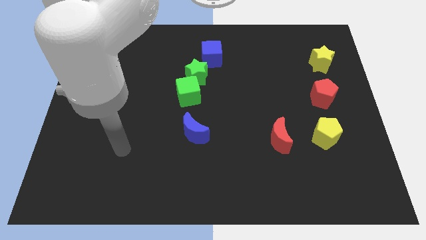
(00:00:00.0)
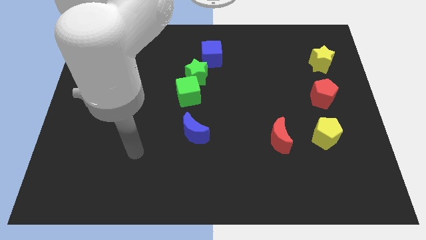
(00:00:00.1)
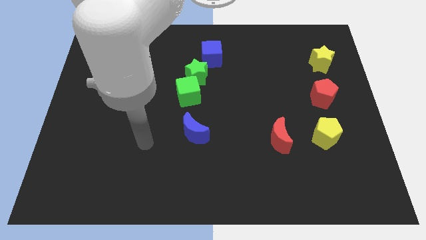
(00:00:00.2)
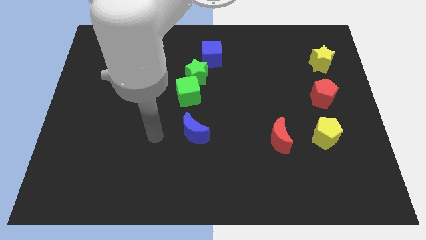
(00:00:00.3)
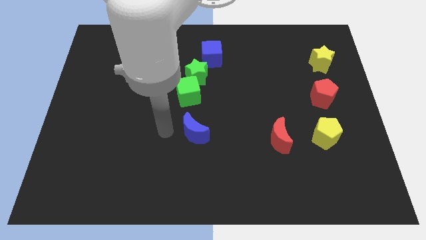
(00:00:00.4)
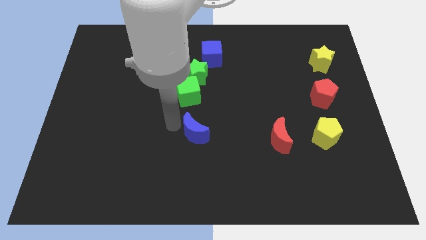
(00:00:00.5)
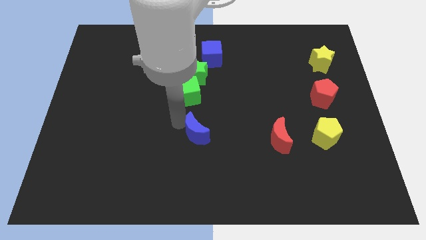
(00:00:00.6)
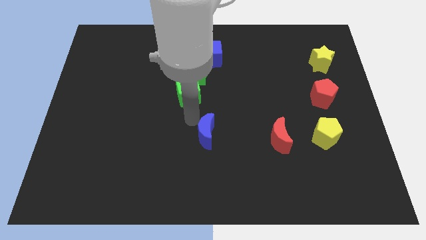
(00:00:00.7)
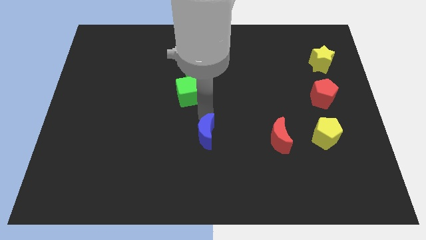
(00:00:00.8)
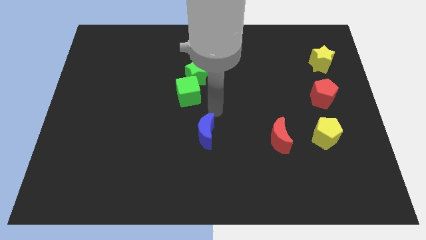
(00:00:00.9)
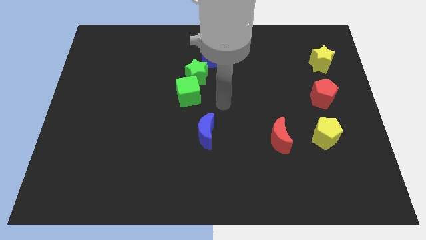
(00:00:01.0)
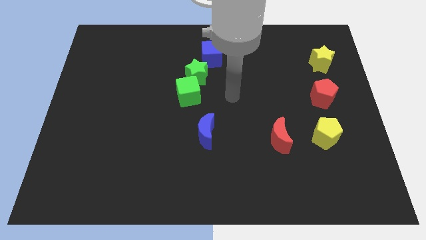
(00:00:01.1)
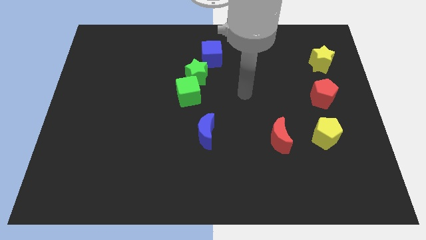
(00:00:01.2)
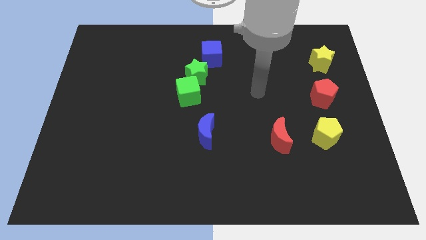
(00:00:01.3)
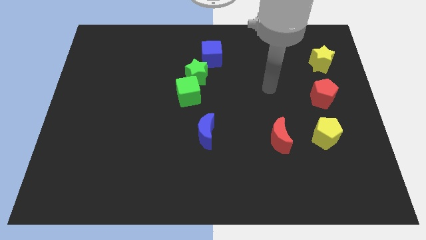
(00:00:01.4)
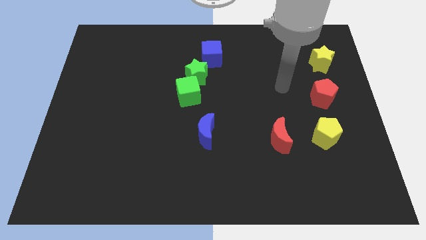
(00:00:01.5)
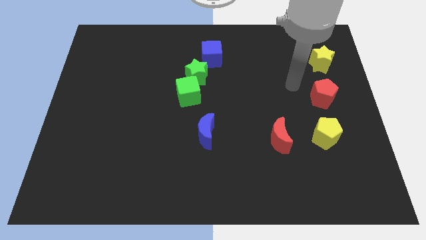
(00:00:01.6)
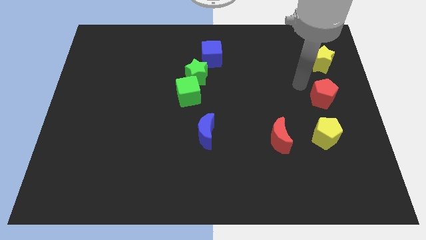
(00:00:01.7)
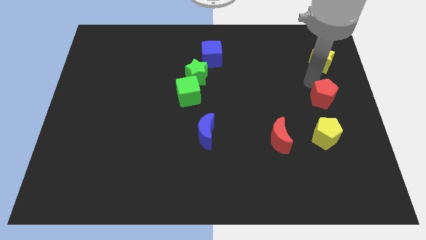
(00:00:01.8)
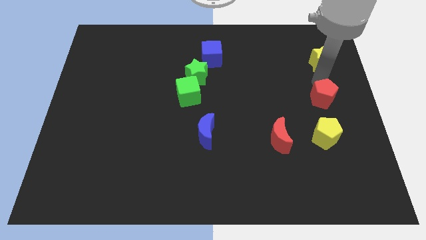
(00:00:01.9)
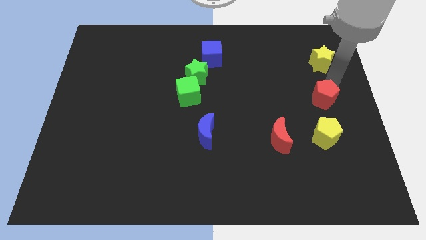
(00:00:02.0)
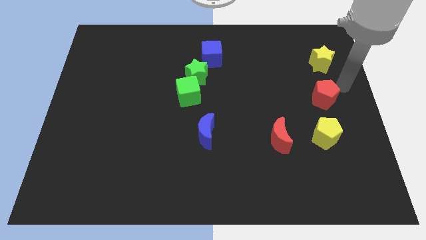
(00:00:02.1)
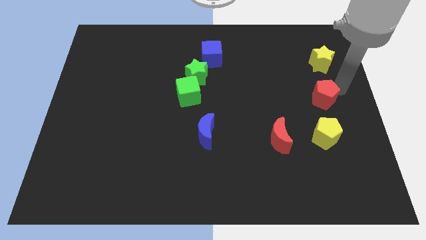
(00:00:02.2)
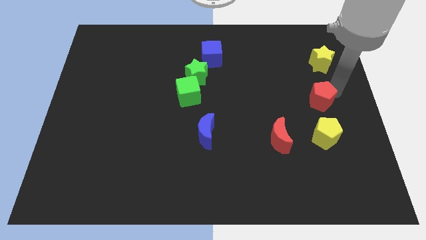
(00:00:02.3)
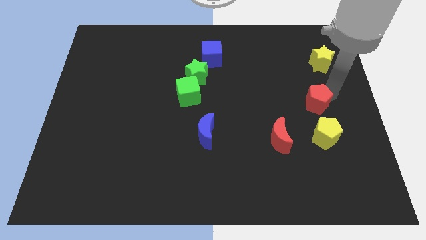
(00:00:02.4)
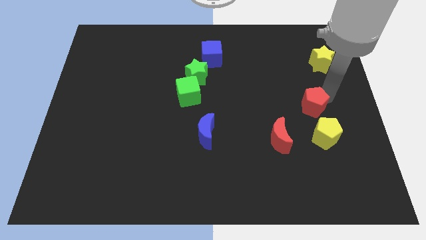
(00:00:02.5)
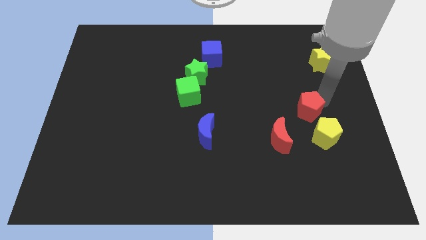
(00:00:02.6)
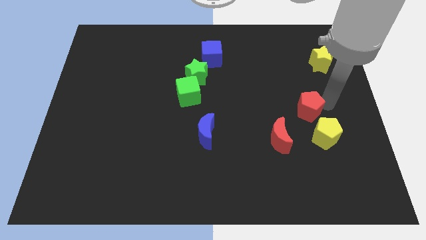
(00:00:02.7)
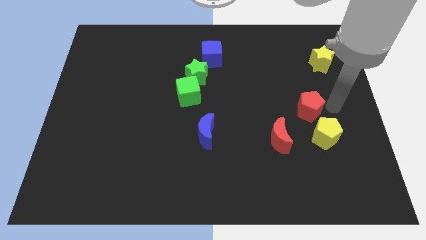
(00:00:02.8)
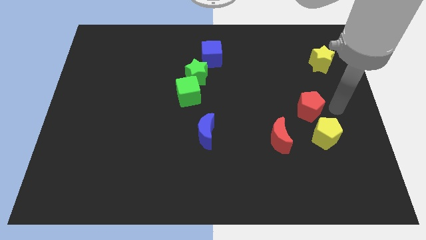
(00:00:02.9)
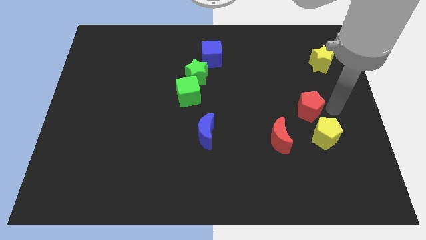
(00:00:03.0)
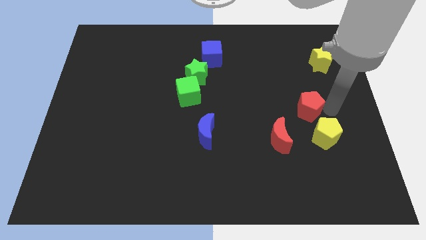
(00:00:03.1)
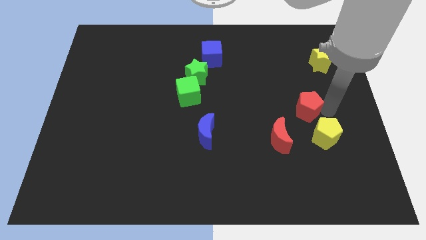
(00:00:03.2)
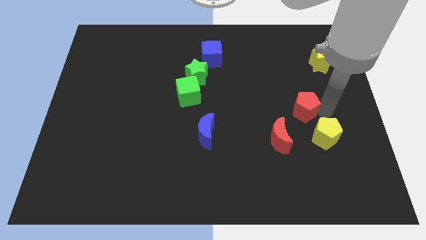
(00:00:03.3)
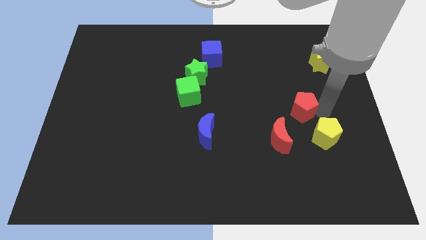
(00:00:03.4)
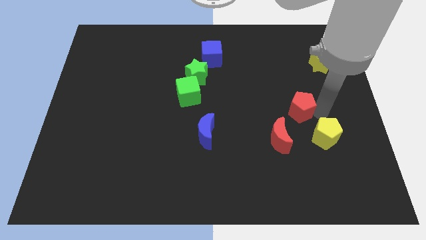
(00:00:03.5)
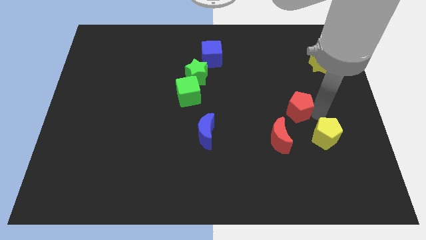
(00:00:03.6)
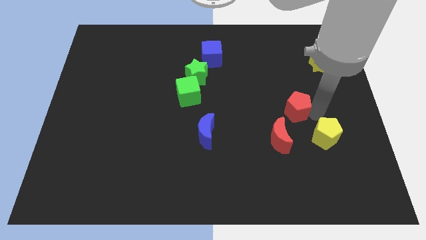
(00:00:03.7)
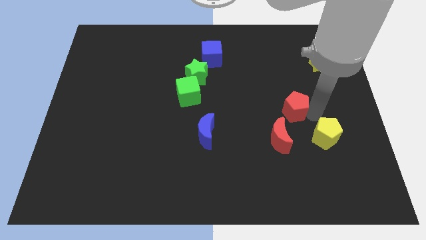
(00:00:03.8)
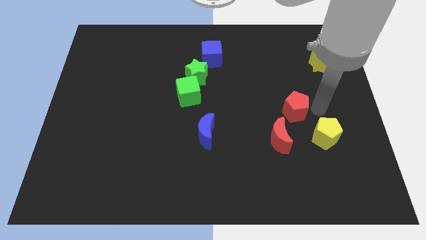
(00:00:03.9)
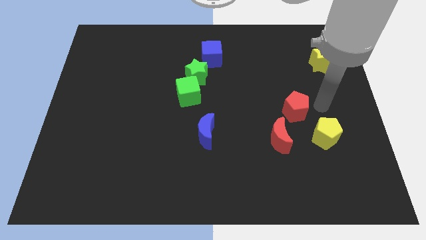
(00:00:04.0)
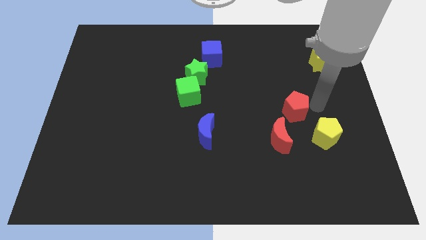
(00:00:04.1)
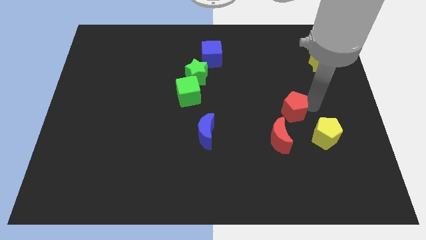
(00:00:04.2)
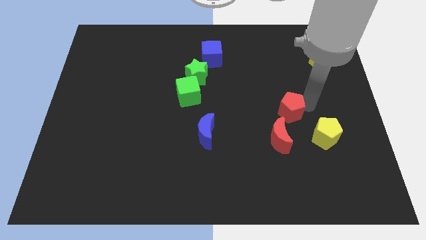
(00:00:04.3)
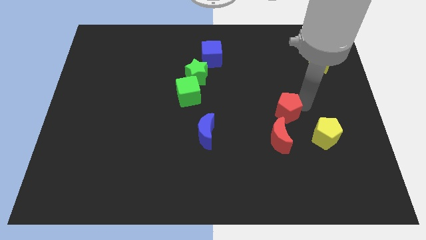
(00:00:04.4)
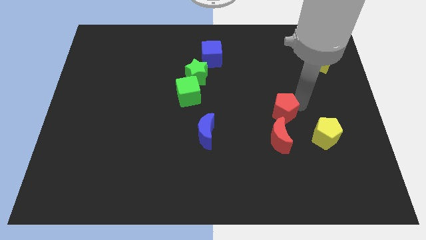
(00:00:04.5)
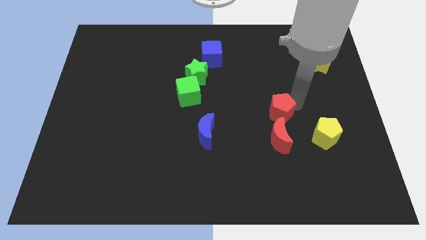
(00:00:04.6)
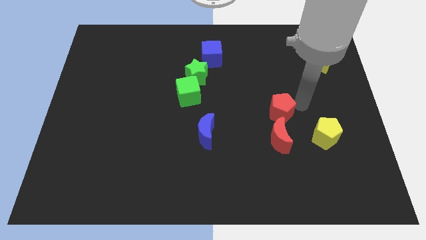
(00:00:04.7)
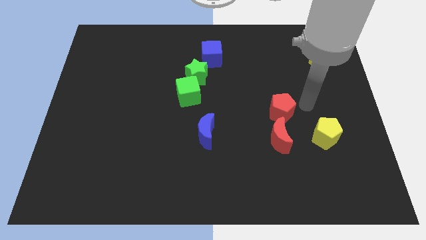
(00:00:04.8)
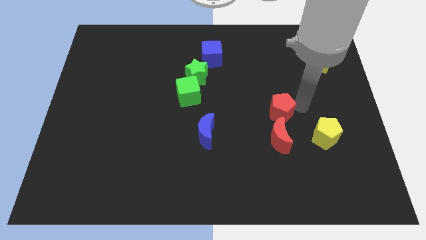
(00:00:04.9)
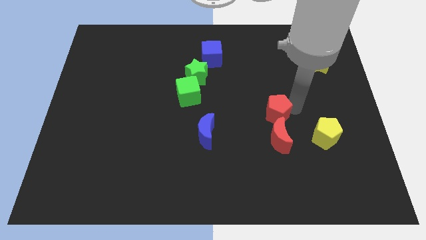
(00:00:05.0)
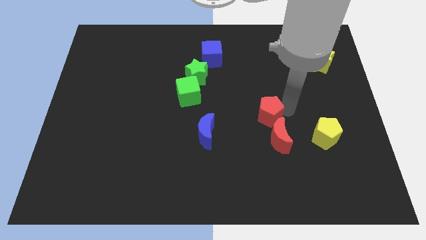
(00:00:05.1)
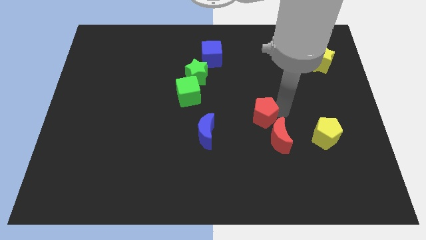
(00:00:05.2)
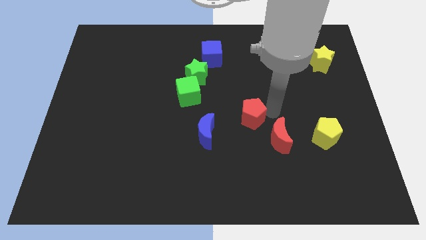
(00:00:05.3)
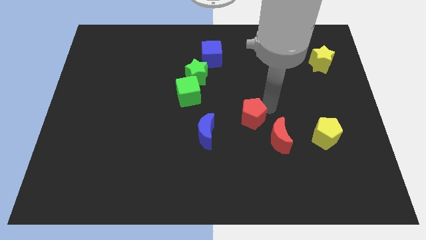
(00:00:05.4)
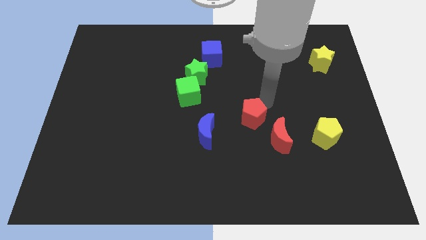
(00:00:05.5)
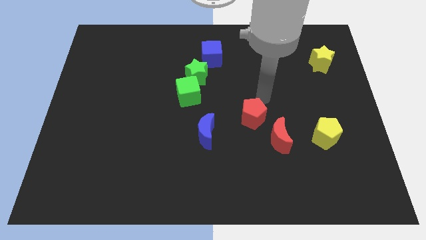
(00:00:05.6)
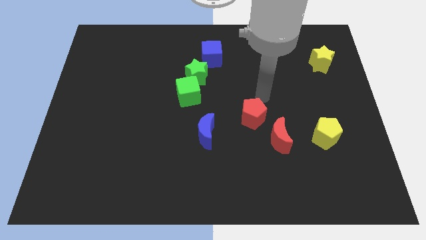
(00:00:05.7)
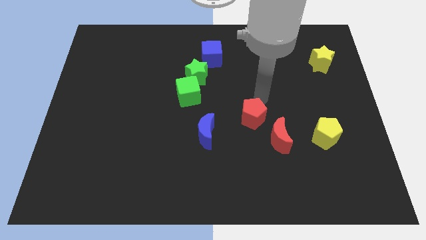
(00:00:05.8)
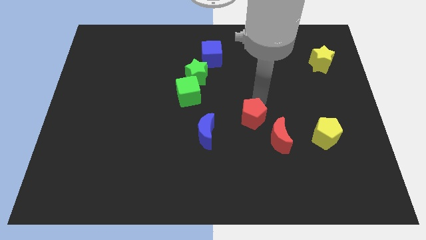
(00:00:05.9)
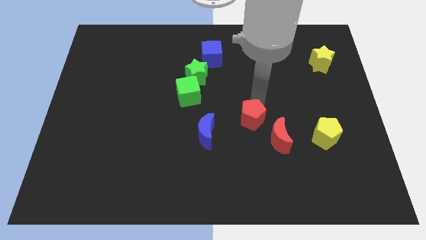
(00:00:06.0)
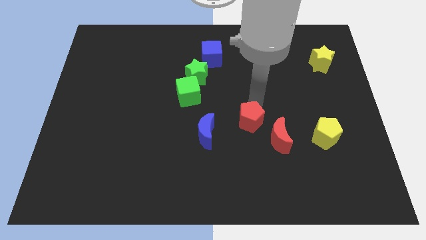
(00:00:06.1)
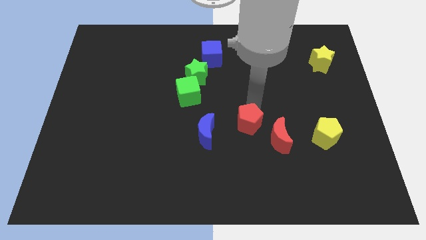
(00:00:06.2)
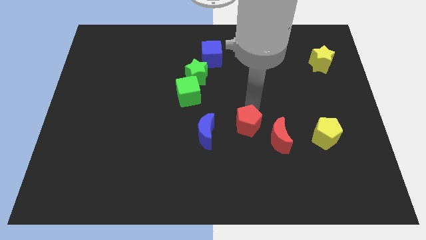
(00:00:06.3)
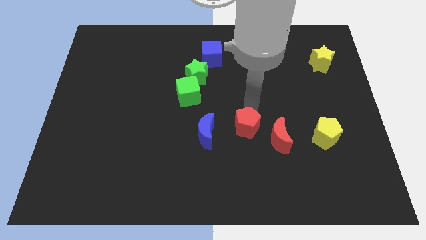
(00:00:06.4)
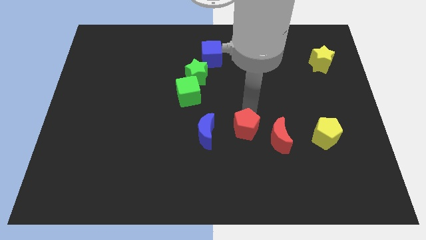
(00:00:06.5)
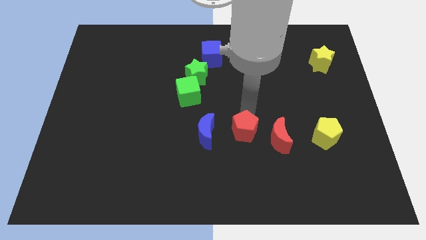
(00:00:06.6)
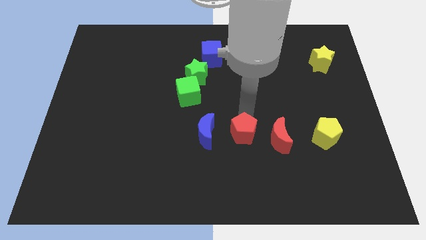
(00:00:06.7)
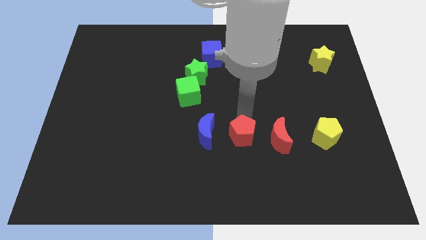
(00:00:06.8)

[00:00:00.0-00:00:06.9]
push the red pentagon down and left diagonally

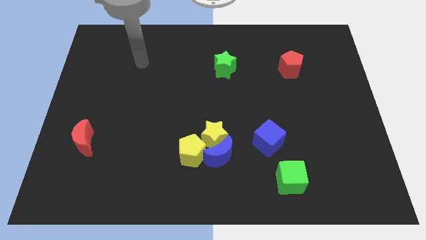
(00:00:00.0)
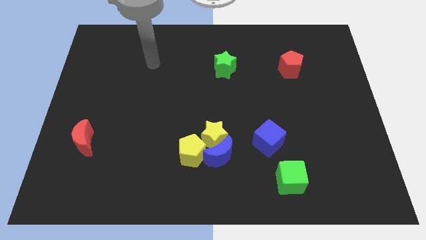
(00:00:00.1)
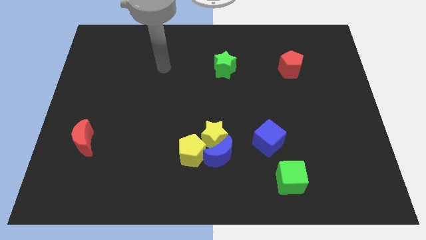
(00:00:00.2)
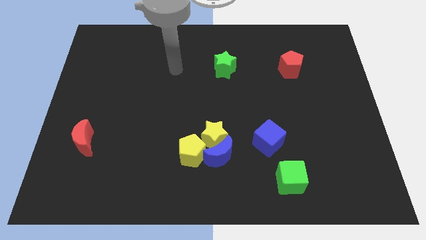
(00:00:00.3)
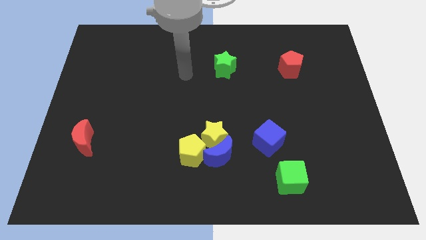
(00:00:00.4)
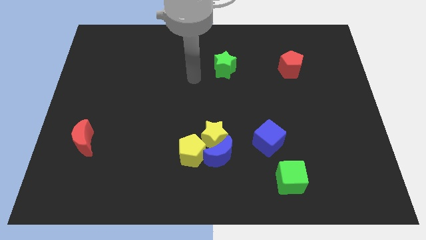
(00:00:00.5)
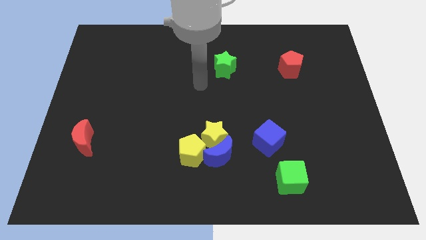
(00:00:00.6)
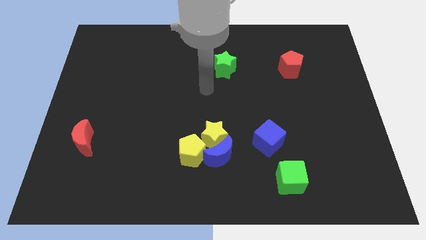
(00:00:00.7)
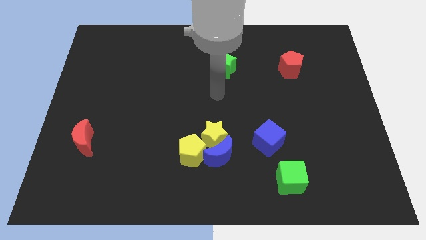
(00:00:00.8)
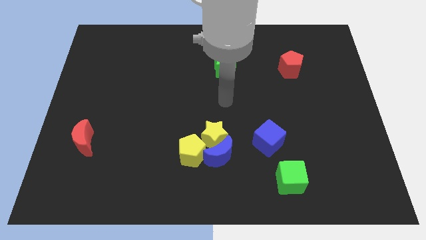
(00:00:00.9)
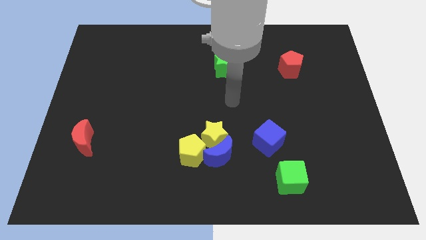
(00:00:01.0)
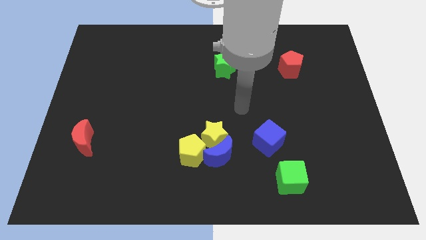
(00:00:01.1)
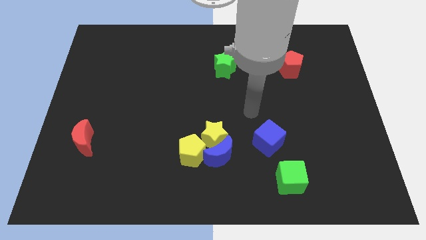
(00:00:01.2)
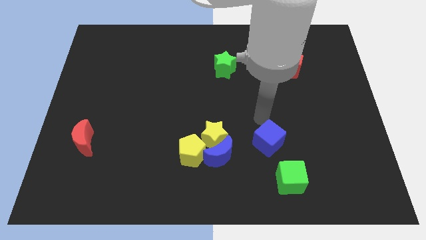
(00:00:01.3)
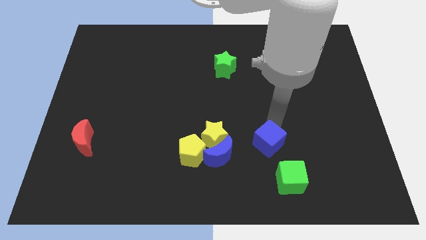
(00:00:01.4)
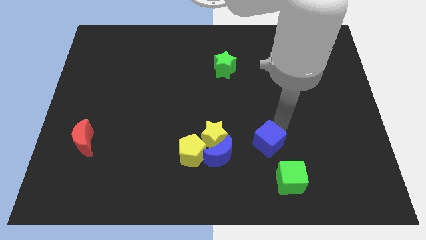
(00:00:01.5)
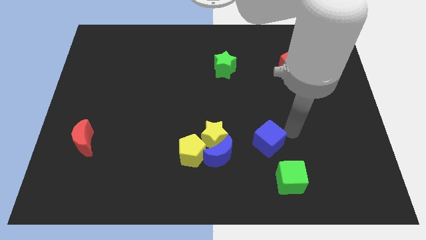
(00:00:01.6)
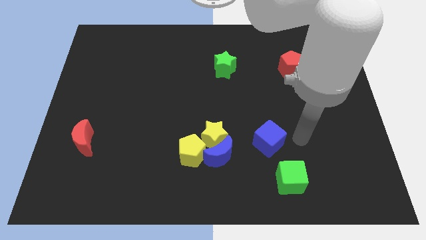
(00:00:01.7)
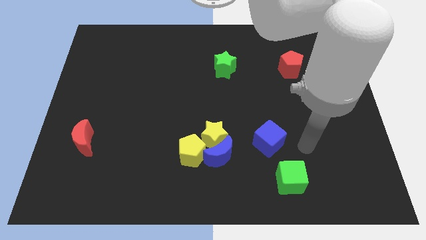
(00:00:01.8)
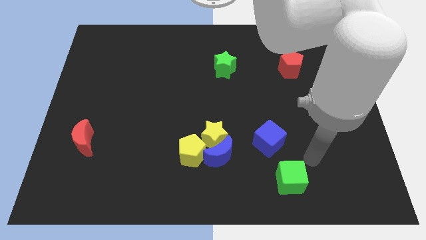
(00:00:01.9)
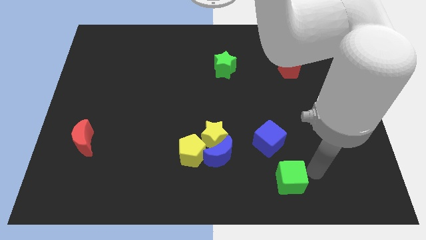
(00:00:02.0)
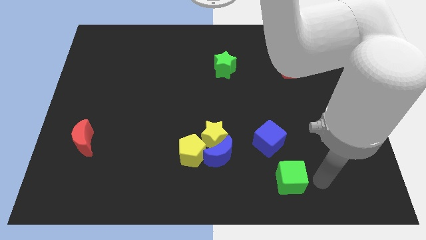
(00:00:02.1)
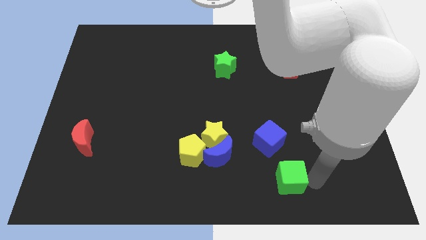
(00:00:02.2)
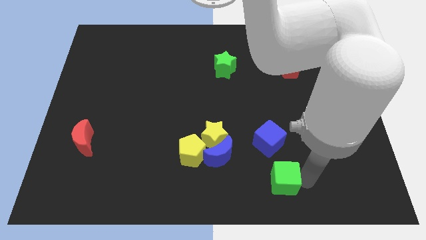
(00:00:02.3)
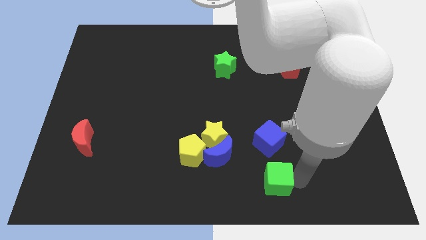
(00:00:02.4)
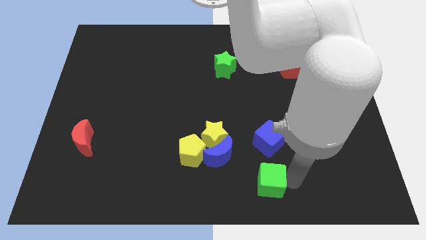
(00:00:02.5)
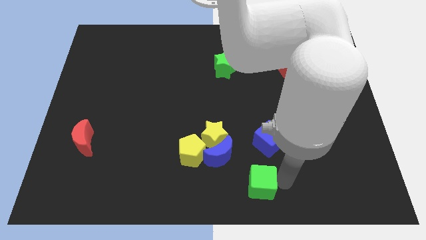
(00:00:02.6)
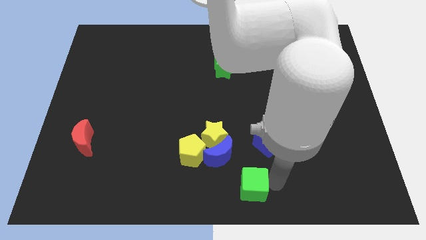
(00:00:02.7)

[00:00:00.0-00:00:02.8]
slightly slide the green cube to the left
